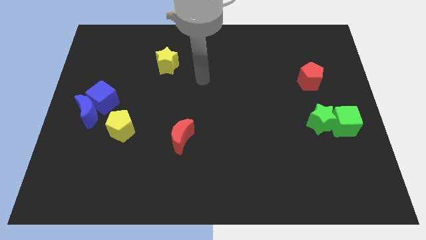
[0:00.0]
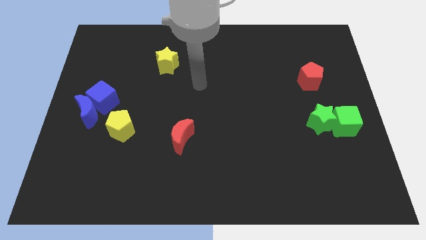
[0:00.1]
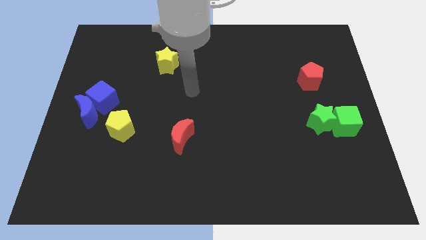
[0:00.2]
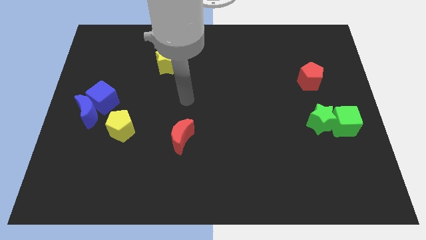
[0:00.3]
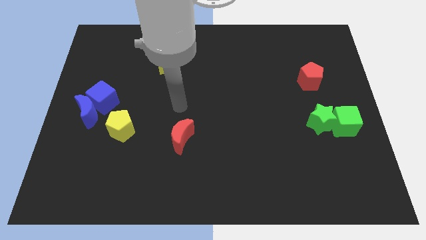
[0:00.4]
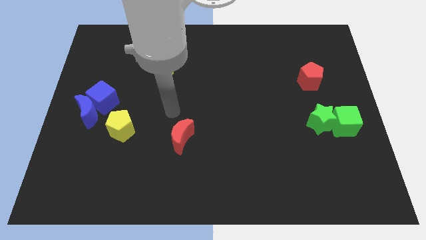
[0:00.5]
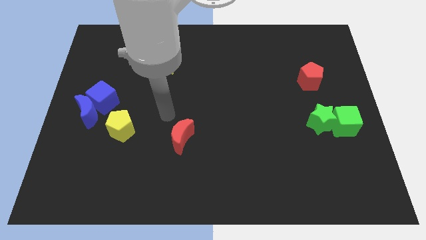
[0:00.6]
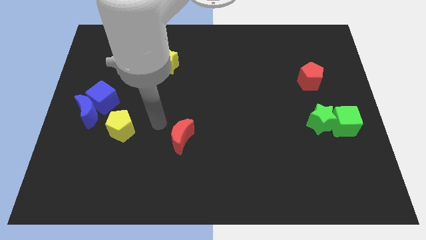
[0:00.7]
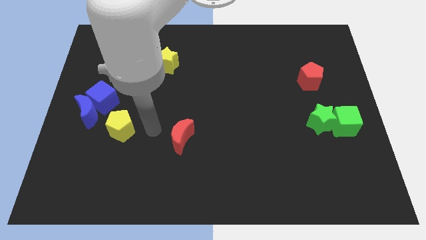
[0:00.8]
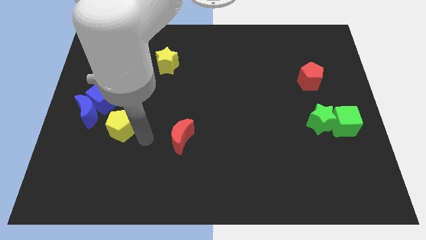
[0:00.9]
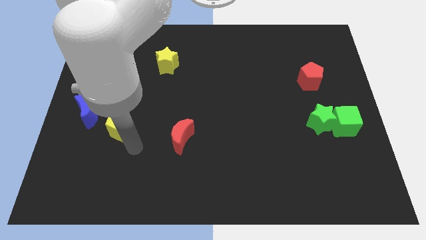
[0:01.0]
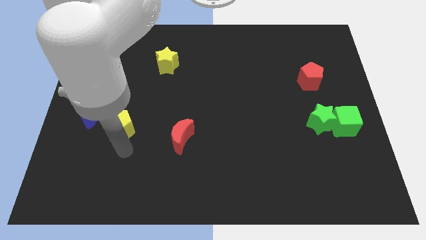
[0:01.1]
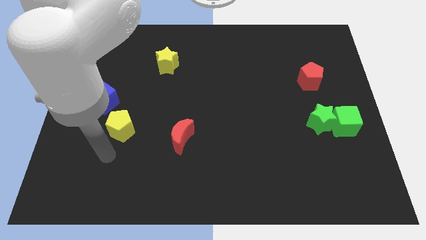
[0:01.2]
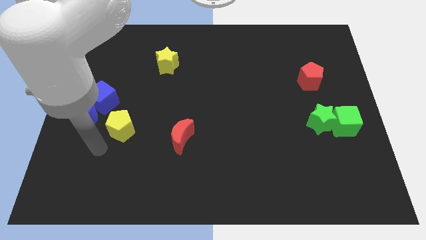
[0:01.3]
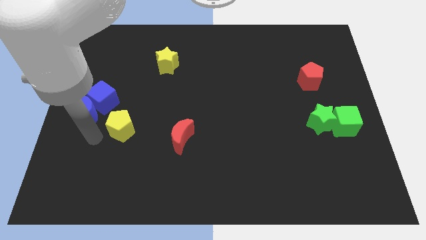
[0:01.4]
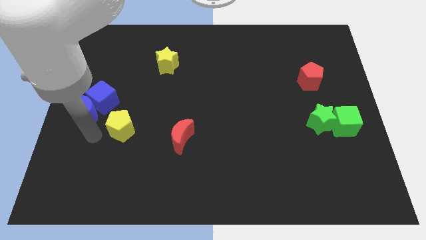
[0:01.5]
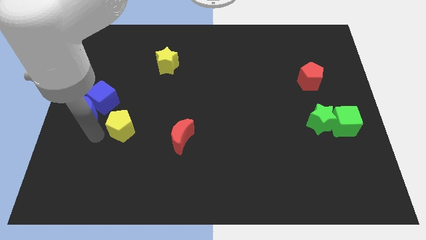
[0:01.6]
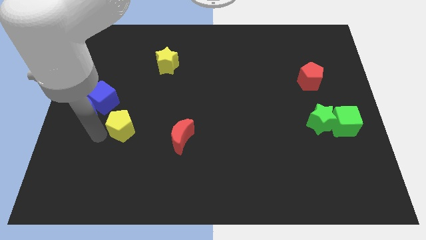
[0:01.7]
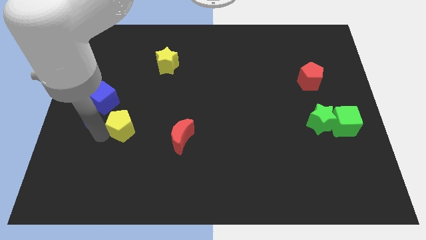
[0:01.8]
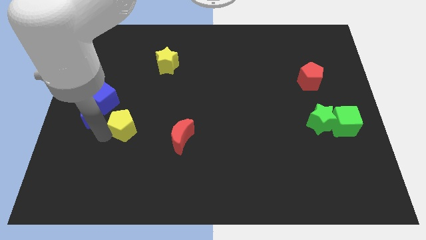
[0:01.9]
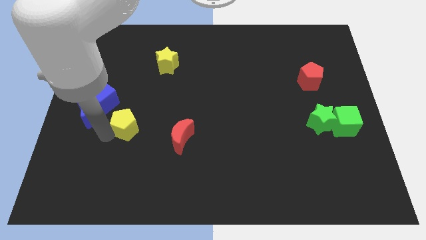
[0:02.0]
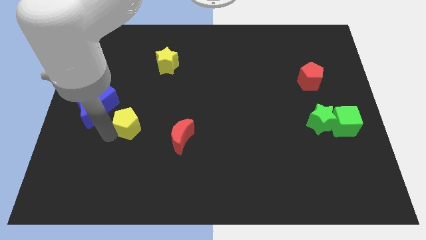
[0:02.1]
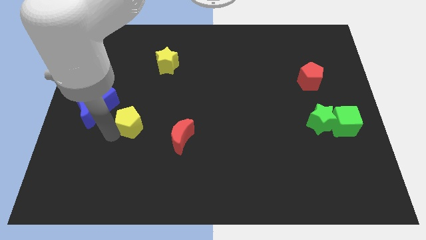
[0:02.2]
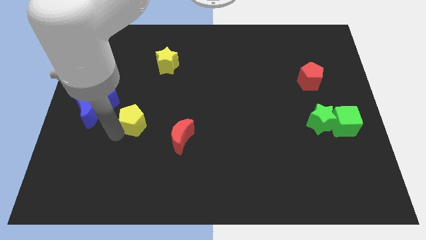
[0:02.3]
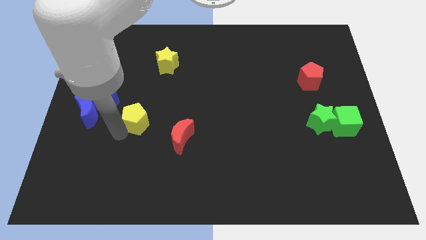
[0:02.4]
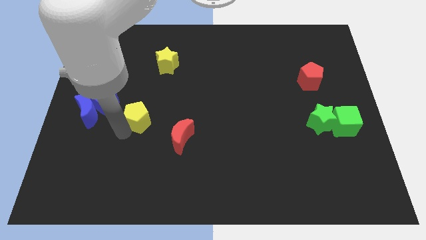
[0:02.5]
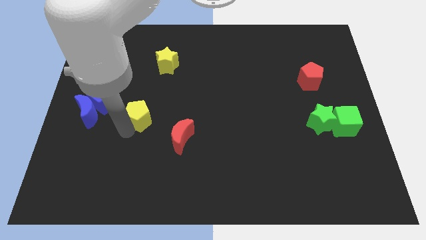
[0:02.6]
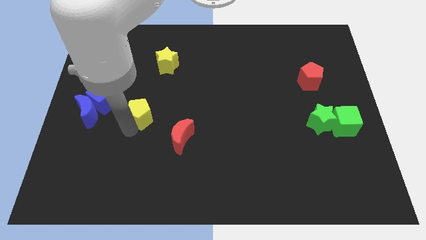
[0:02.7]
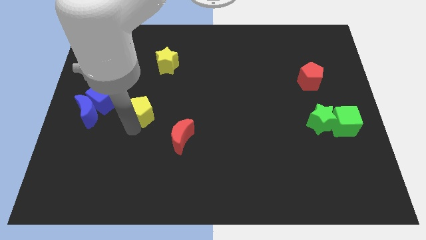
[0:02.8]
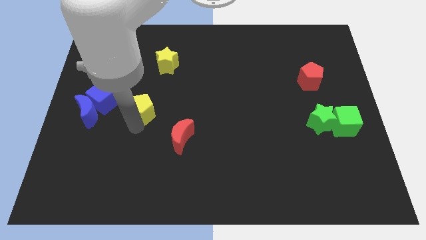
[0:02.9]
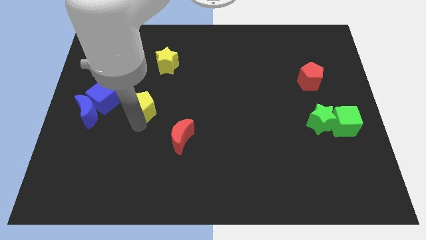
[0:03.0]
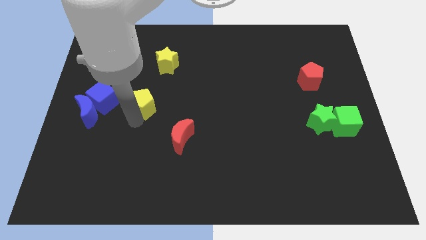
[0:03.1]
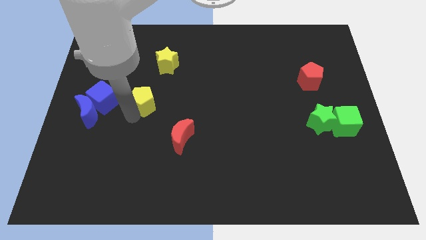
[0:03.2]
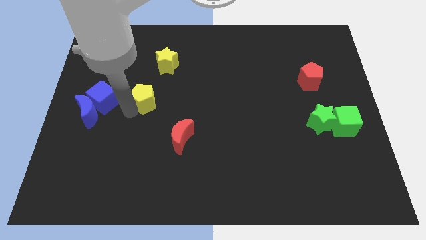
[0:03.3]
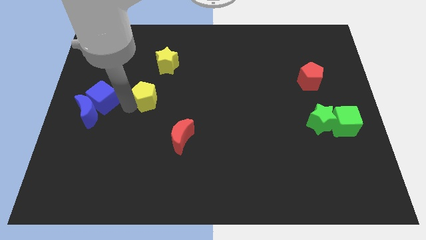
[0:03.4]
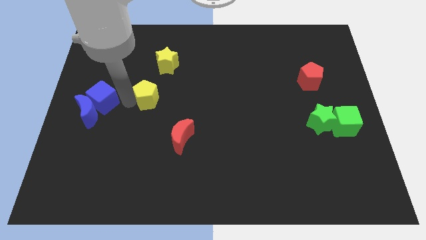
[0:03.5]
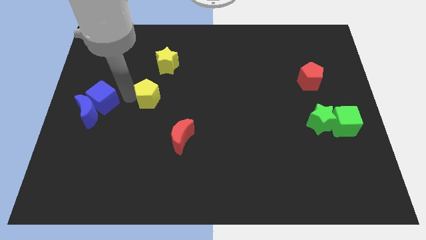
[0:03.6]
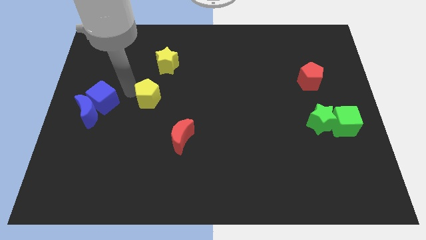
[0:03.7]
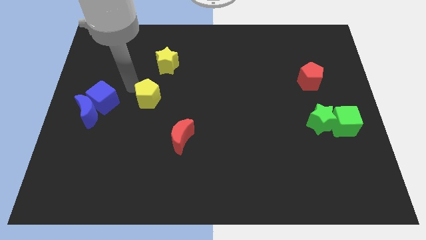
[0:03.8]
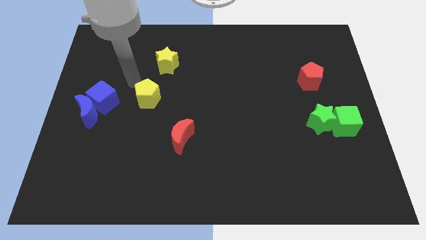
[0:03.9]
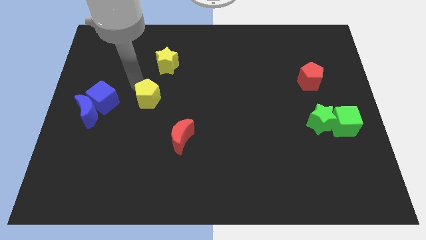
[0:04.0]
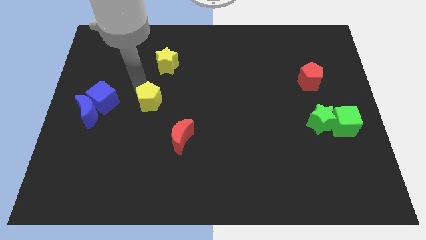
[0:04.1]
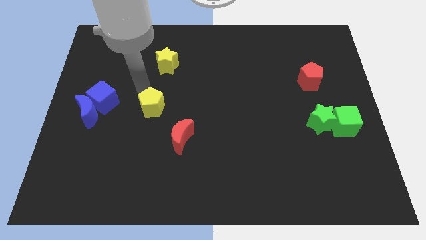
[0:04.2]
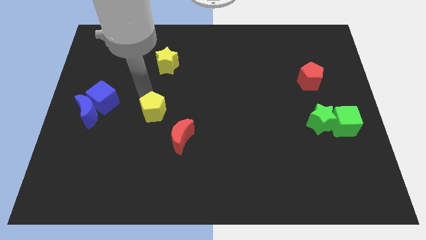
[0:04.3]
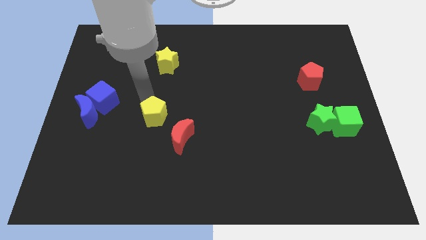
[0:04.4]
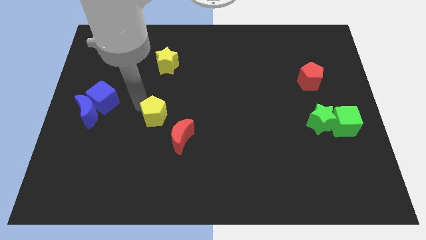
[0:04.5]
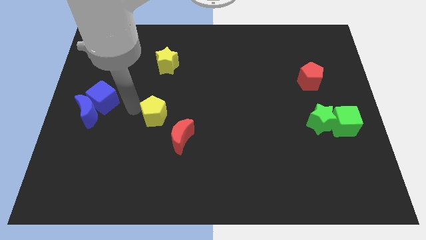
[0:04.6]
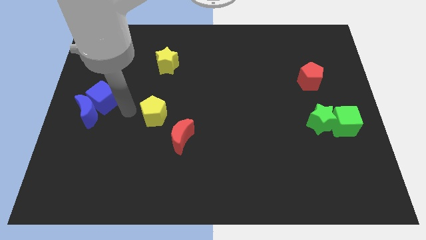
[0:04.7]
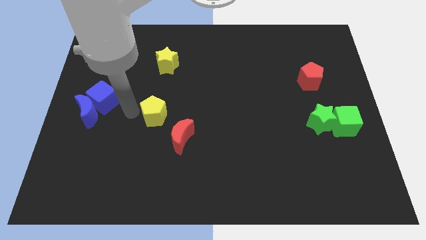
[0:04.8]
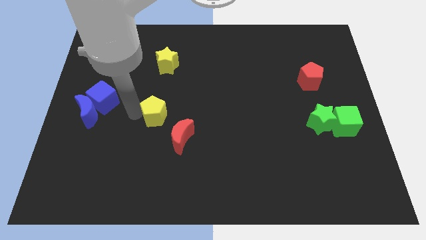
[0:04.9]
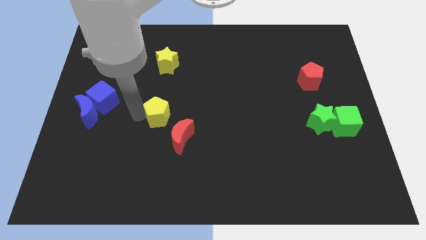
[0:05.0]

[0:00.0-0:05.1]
move the yellow pentagon to the right a little

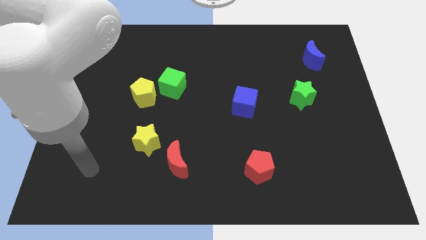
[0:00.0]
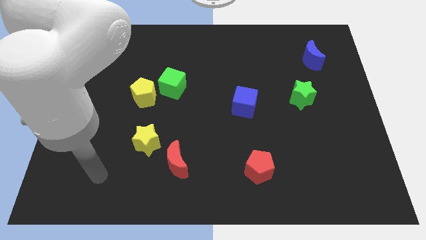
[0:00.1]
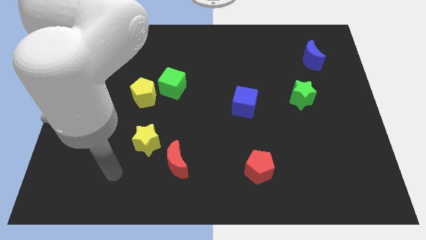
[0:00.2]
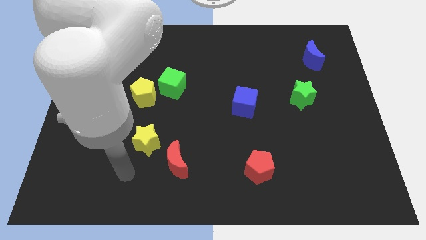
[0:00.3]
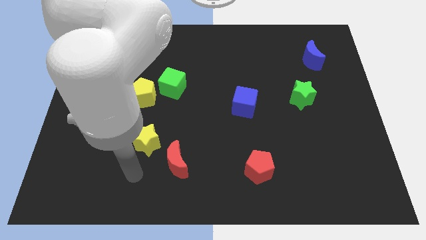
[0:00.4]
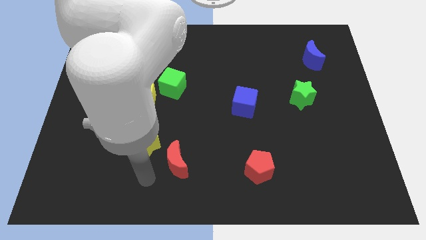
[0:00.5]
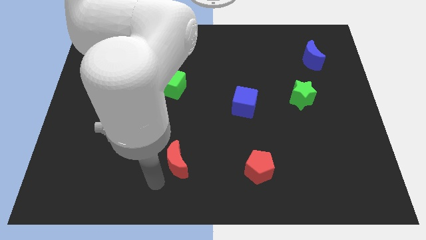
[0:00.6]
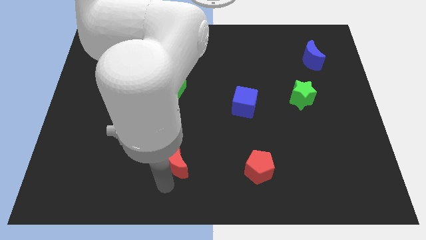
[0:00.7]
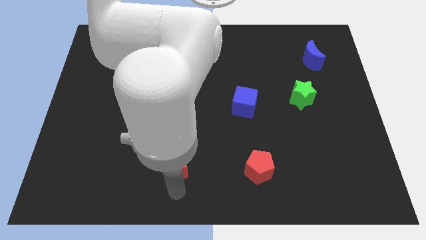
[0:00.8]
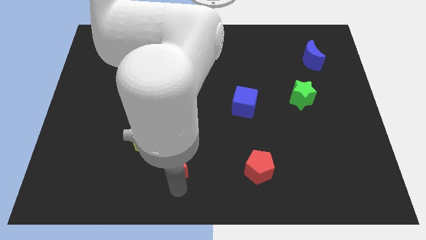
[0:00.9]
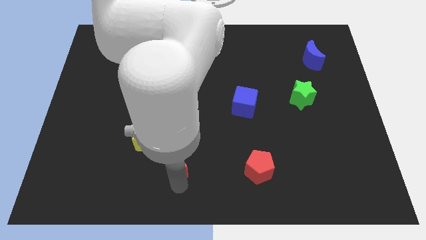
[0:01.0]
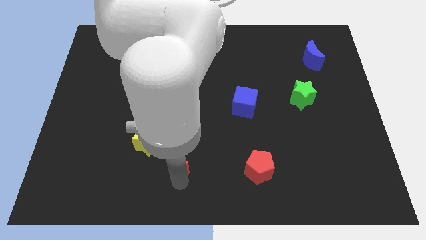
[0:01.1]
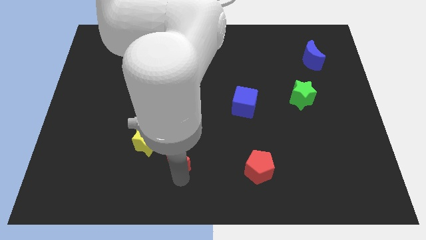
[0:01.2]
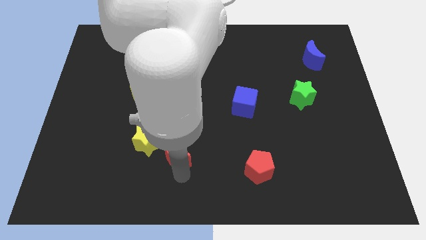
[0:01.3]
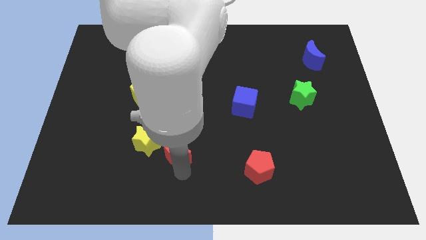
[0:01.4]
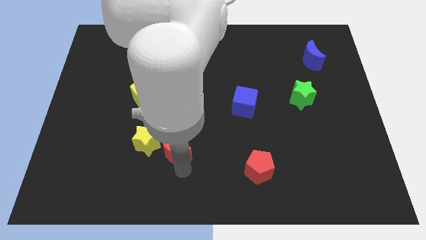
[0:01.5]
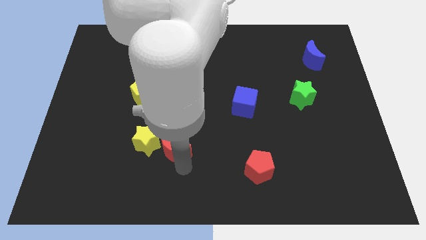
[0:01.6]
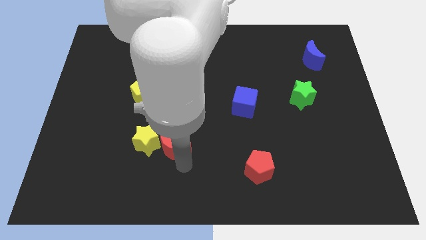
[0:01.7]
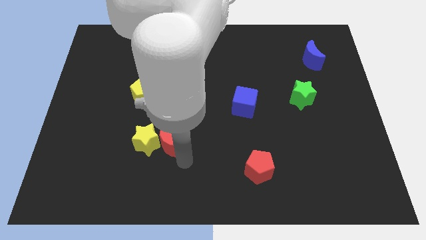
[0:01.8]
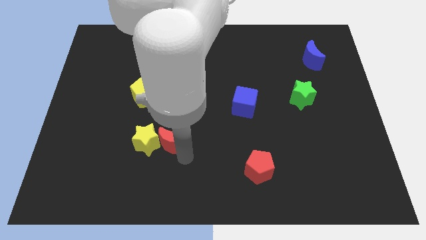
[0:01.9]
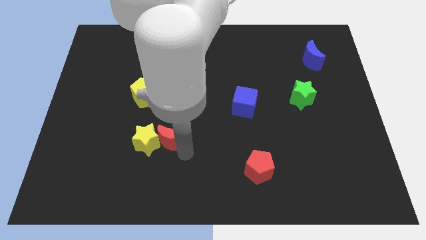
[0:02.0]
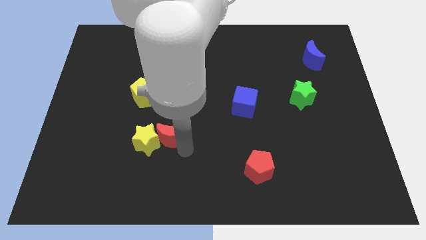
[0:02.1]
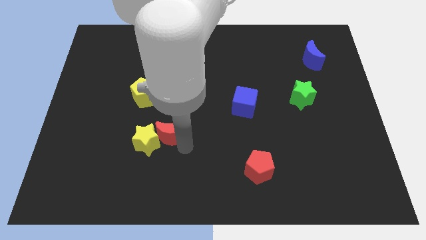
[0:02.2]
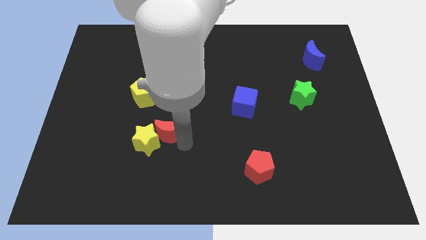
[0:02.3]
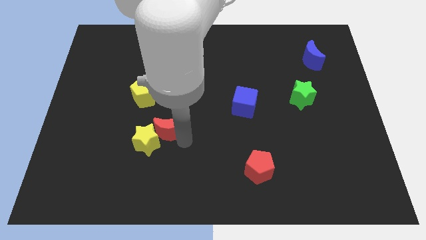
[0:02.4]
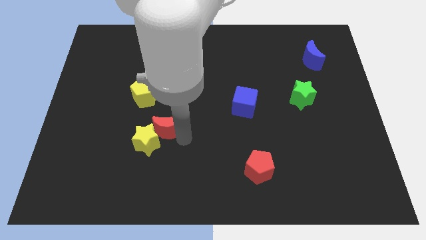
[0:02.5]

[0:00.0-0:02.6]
slide the red moon a little upwards and left diagonally

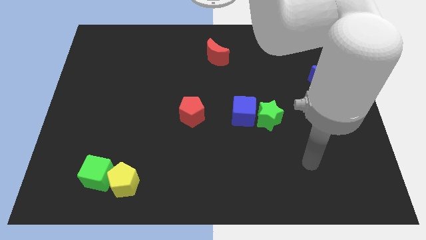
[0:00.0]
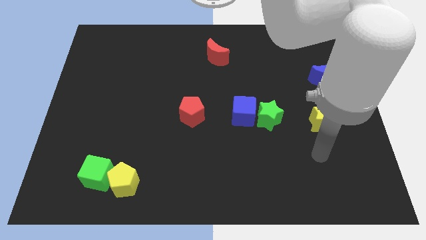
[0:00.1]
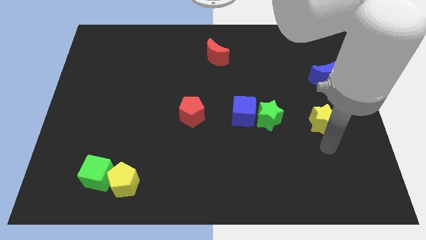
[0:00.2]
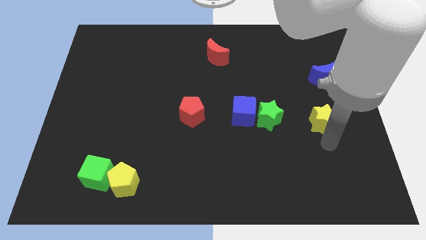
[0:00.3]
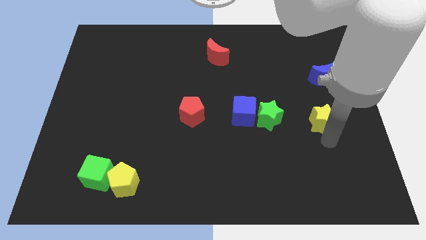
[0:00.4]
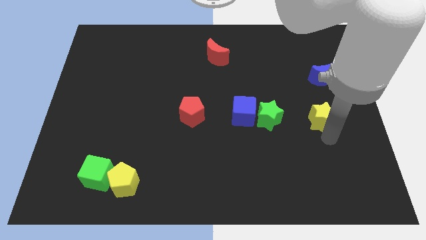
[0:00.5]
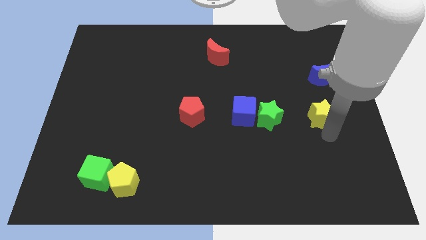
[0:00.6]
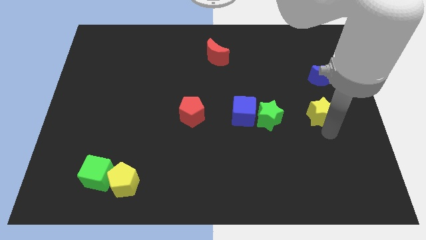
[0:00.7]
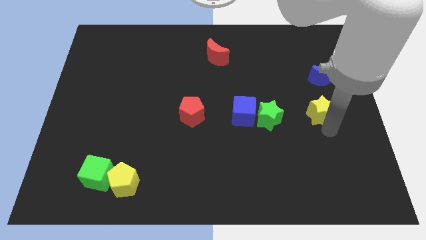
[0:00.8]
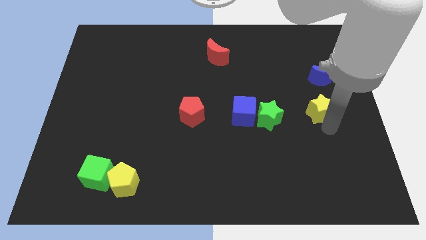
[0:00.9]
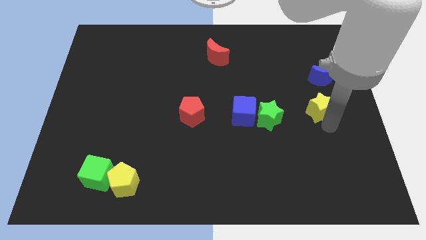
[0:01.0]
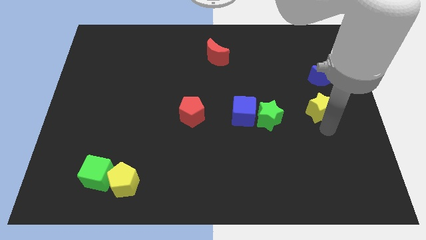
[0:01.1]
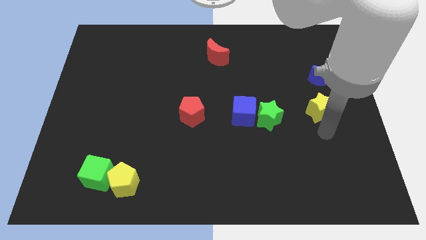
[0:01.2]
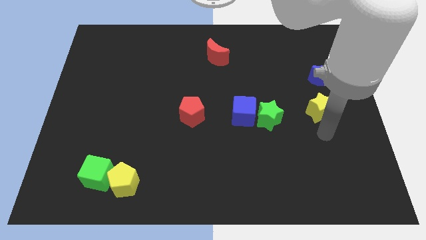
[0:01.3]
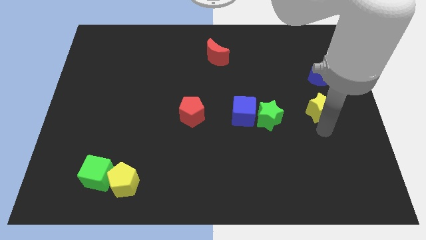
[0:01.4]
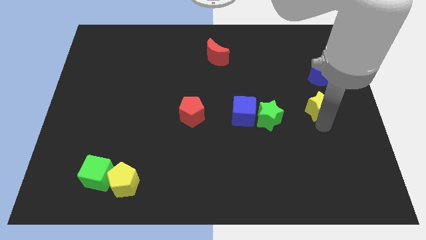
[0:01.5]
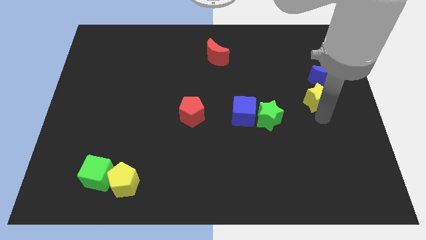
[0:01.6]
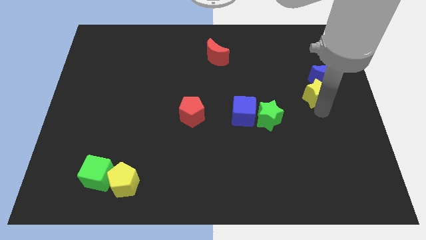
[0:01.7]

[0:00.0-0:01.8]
slightly slide the yellow star up
